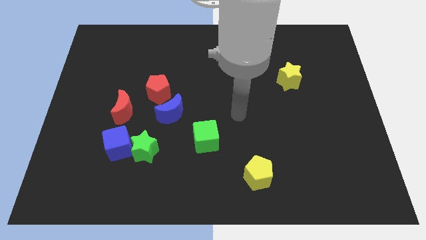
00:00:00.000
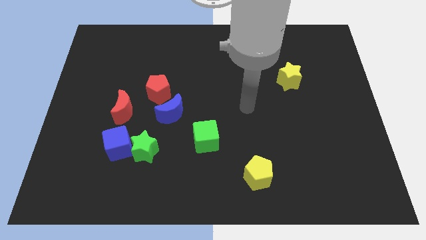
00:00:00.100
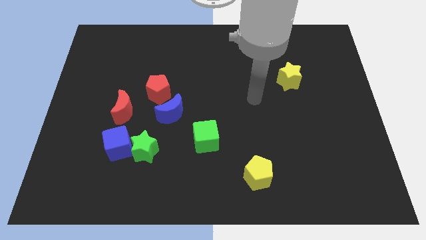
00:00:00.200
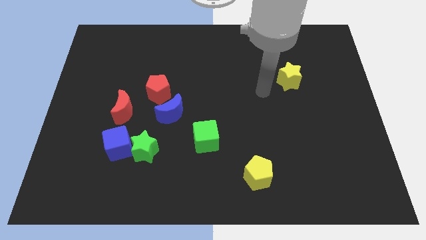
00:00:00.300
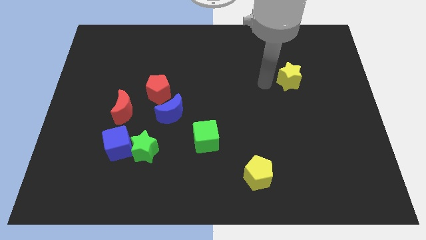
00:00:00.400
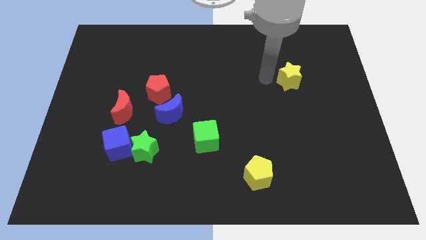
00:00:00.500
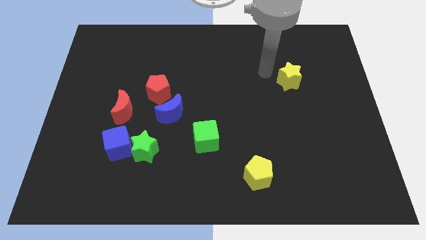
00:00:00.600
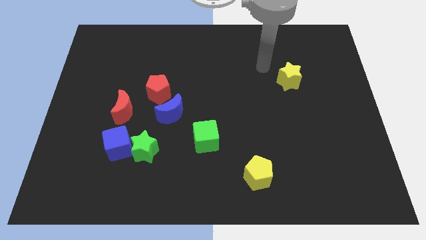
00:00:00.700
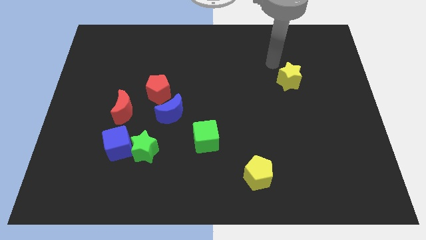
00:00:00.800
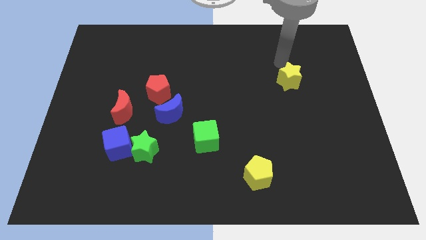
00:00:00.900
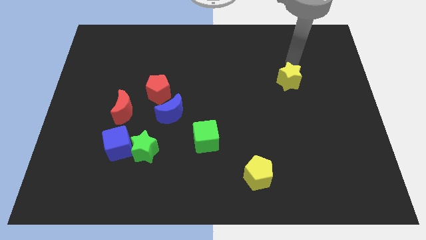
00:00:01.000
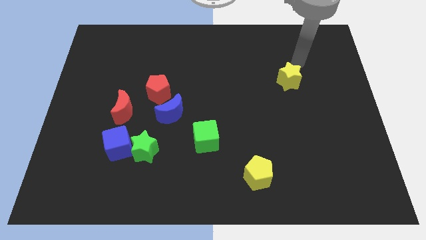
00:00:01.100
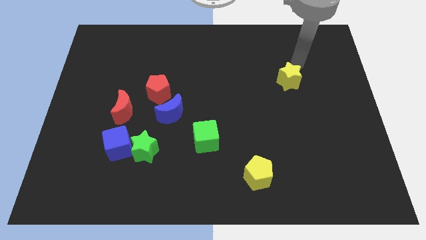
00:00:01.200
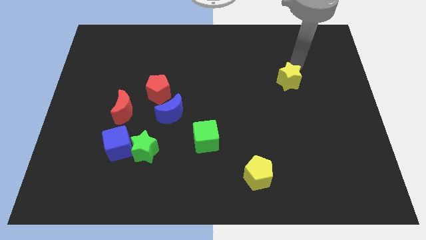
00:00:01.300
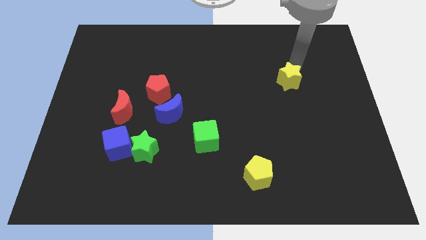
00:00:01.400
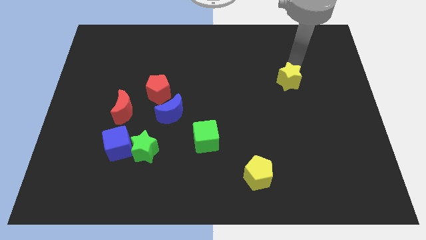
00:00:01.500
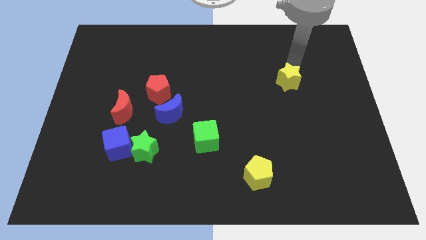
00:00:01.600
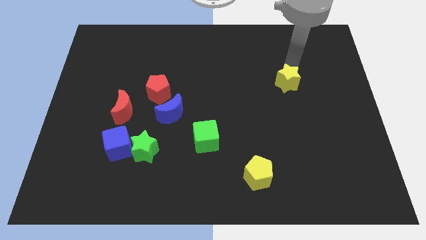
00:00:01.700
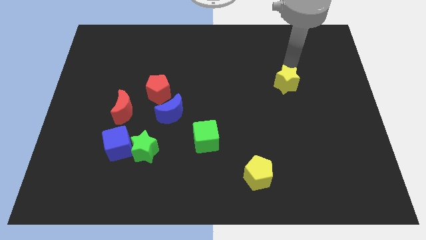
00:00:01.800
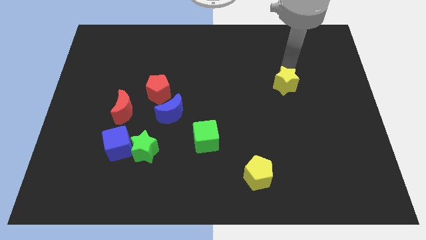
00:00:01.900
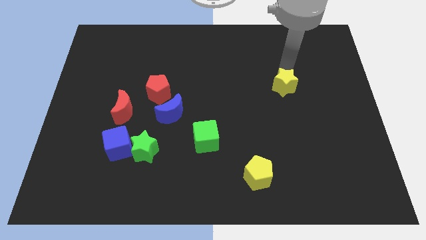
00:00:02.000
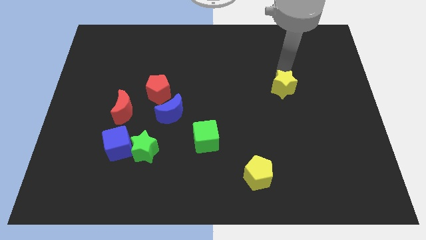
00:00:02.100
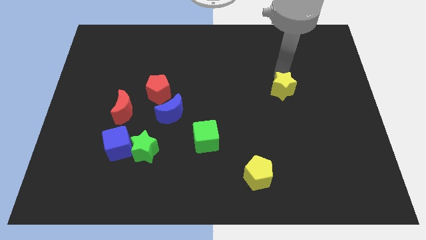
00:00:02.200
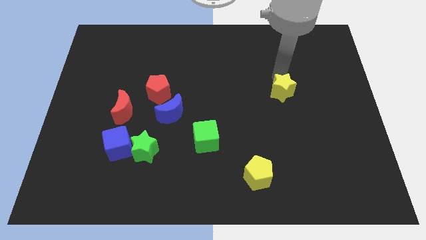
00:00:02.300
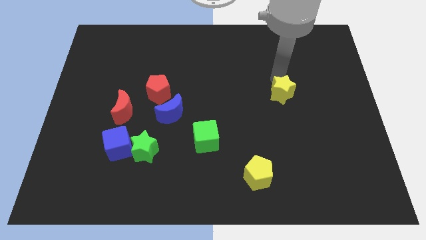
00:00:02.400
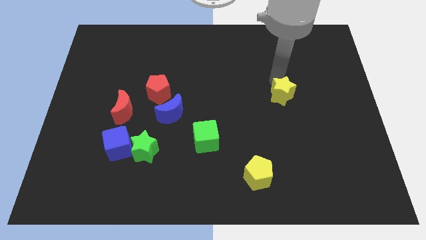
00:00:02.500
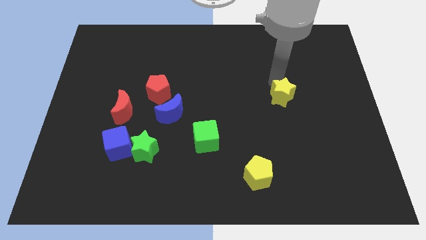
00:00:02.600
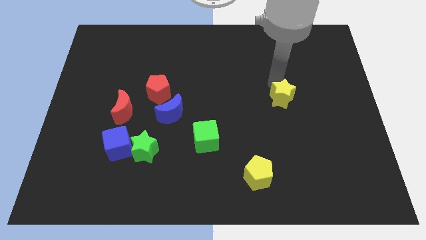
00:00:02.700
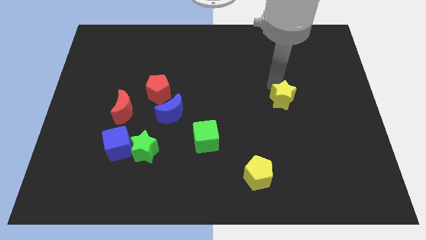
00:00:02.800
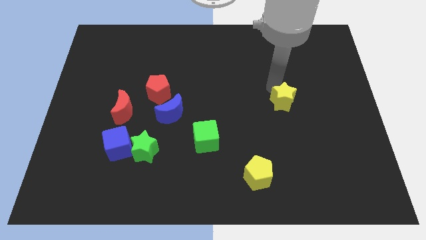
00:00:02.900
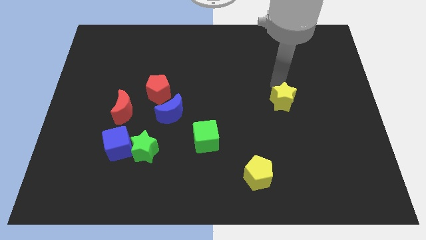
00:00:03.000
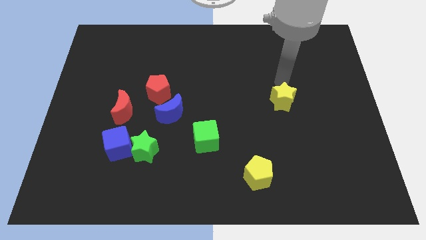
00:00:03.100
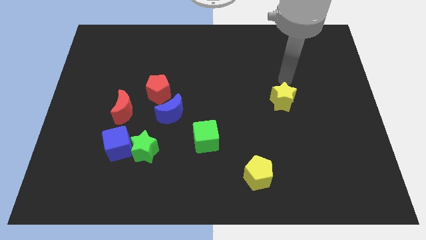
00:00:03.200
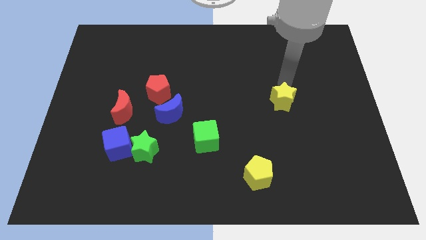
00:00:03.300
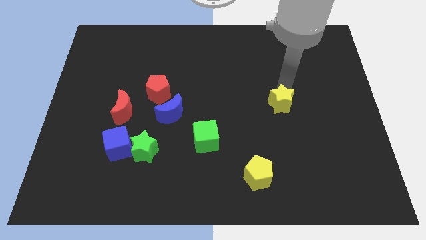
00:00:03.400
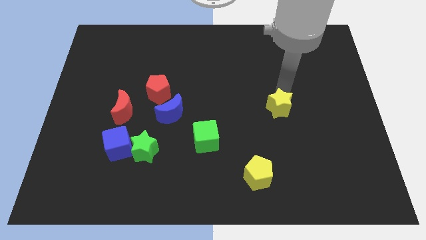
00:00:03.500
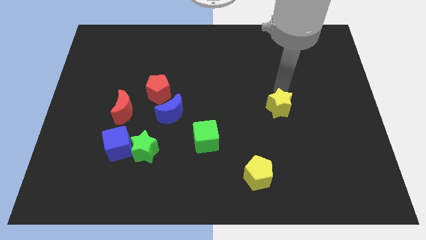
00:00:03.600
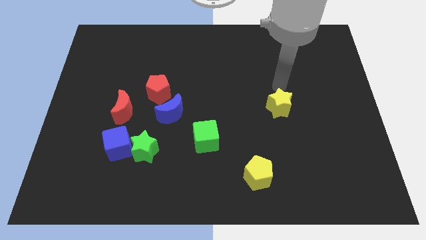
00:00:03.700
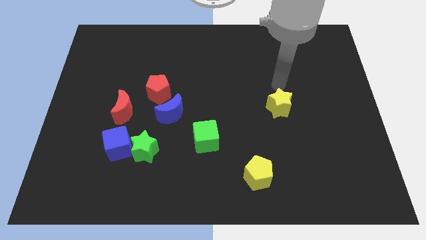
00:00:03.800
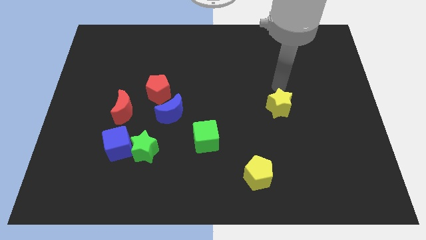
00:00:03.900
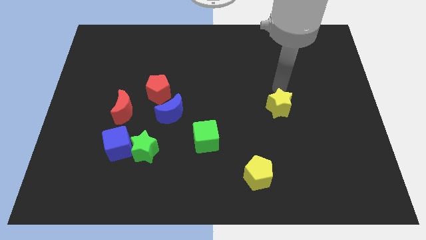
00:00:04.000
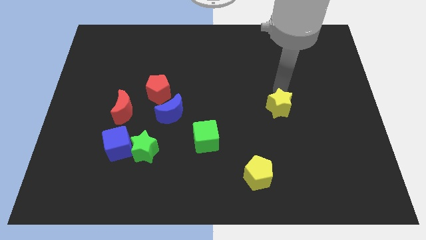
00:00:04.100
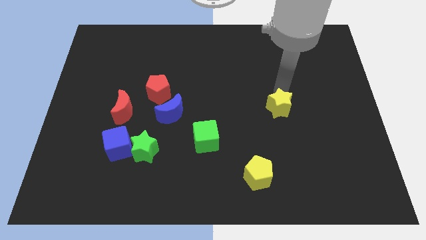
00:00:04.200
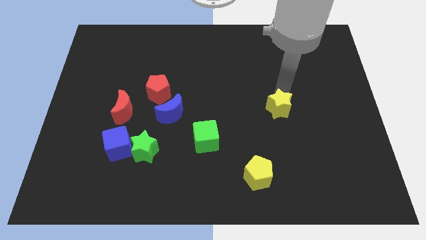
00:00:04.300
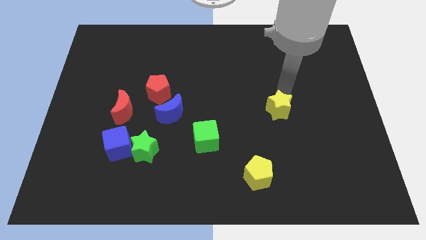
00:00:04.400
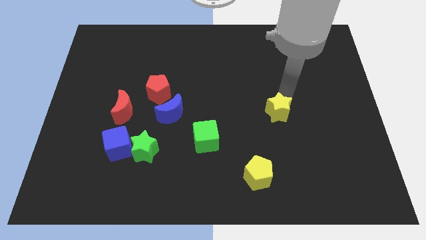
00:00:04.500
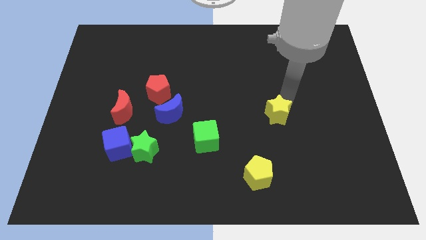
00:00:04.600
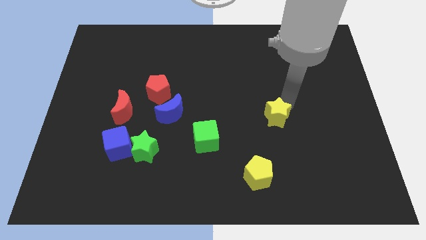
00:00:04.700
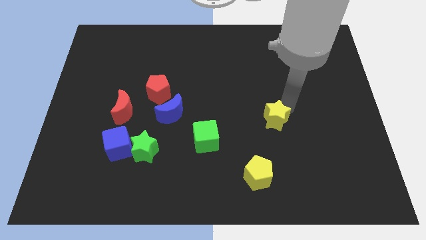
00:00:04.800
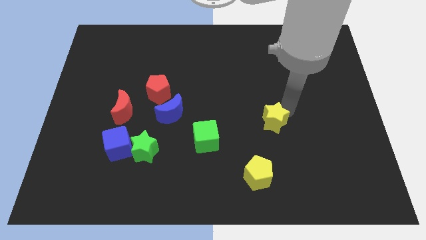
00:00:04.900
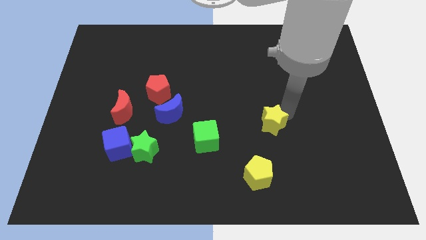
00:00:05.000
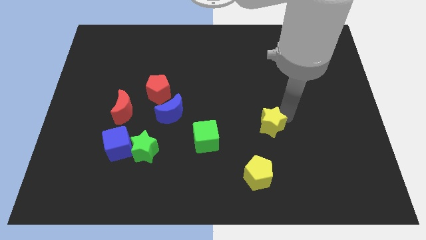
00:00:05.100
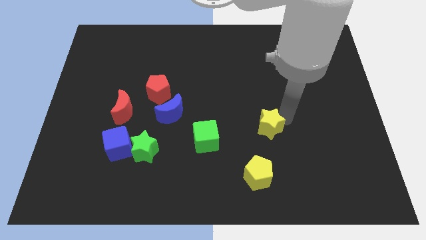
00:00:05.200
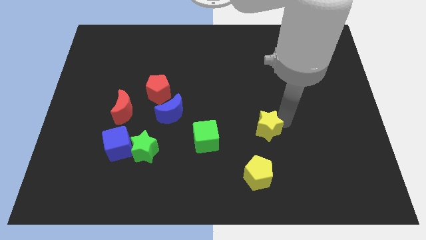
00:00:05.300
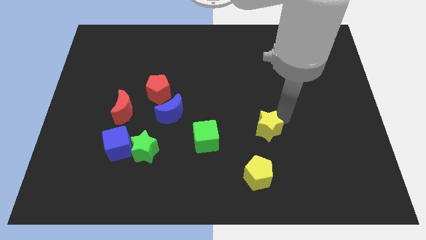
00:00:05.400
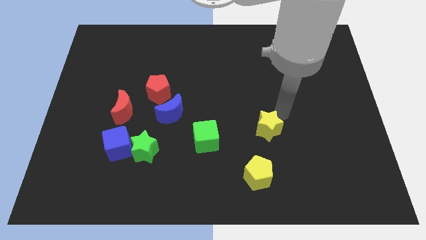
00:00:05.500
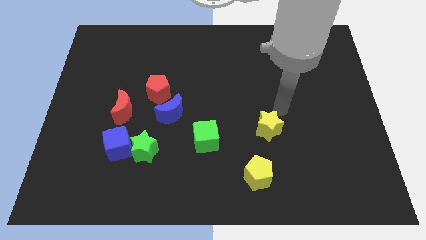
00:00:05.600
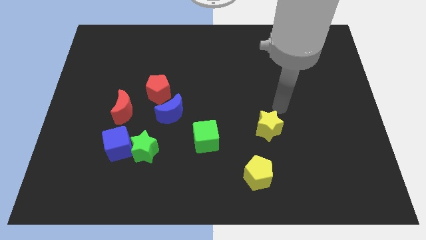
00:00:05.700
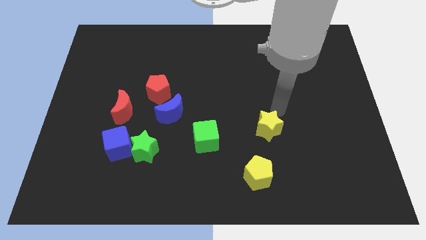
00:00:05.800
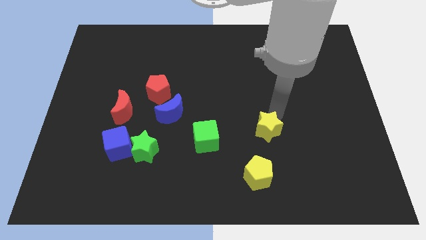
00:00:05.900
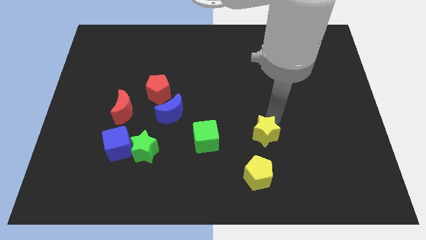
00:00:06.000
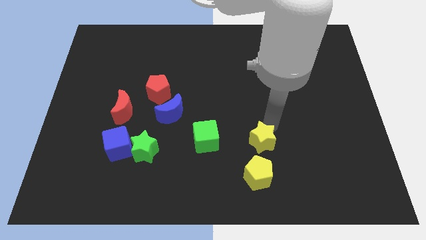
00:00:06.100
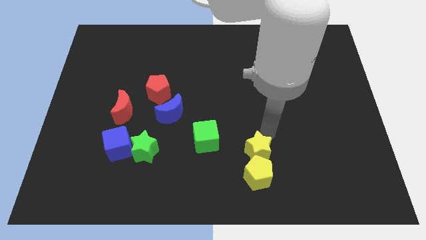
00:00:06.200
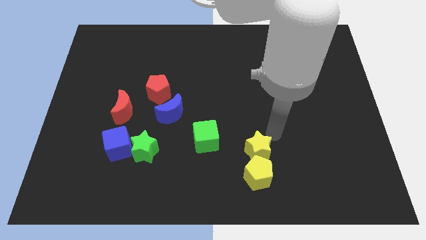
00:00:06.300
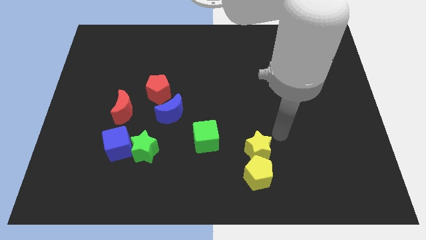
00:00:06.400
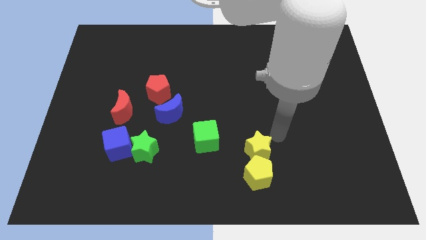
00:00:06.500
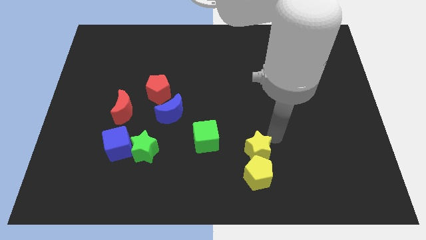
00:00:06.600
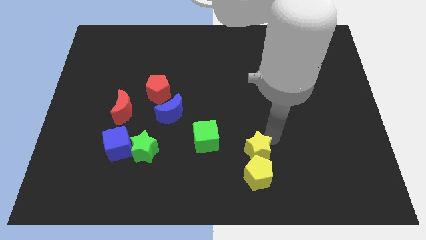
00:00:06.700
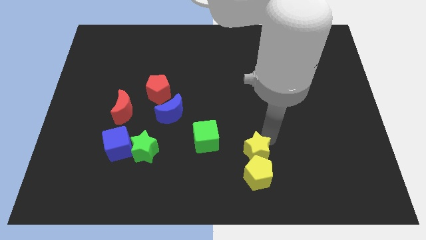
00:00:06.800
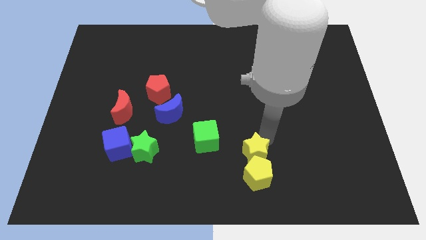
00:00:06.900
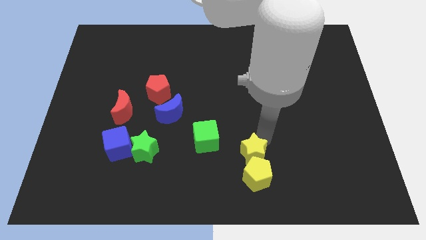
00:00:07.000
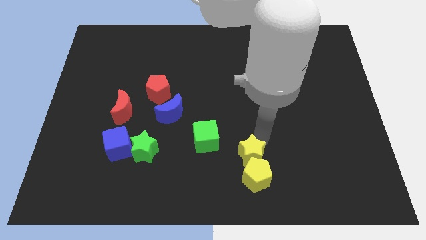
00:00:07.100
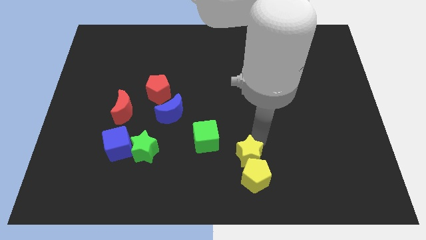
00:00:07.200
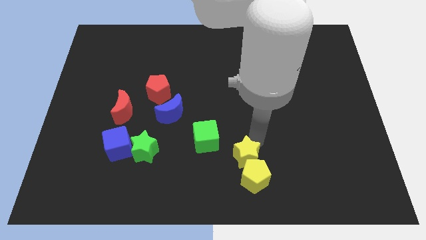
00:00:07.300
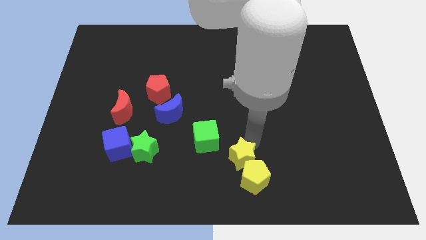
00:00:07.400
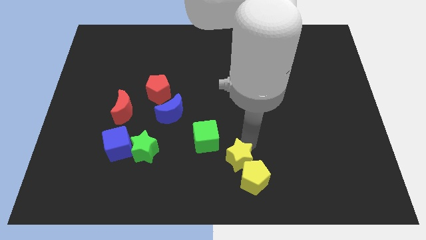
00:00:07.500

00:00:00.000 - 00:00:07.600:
slide the yellow star to the bottom
